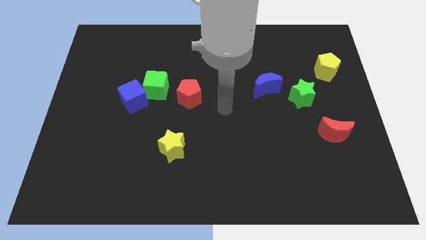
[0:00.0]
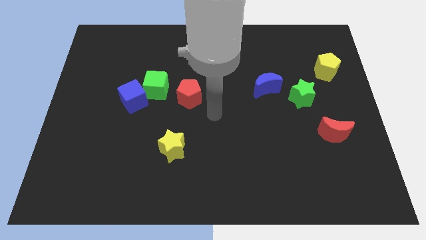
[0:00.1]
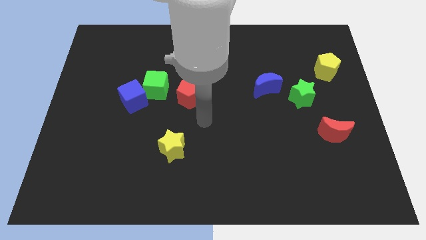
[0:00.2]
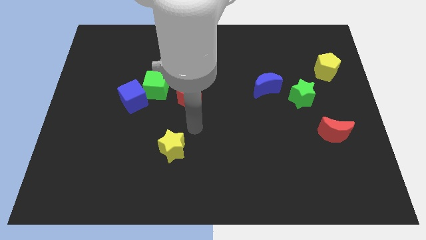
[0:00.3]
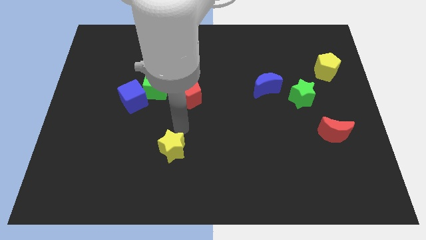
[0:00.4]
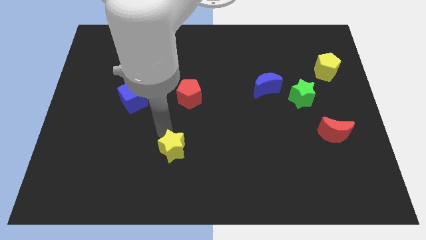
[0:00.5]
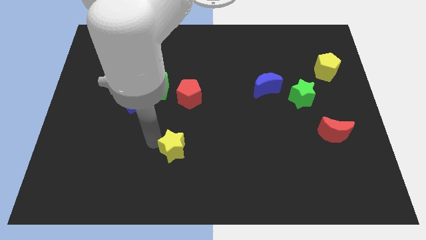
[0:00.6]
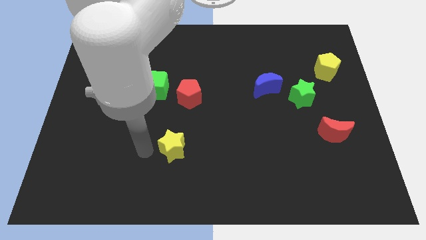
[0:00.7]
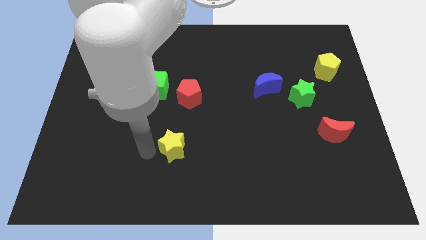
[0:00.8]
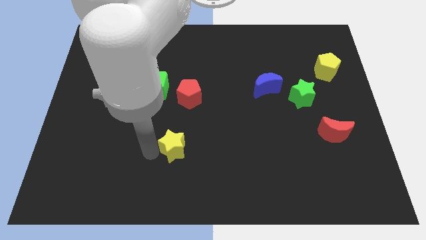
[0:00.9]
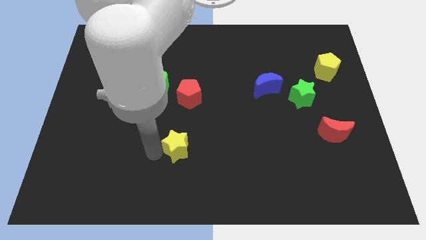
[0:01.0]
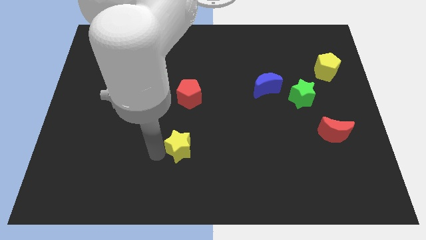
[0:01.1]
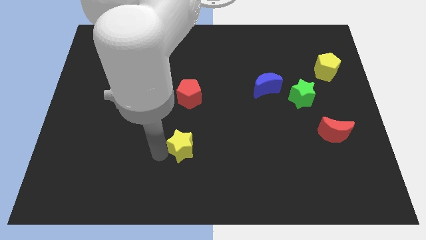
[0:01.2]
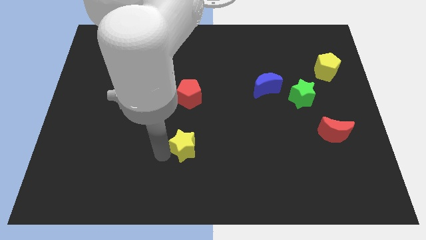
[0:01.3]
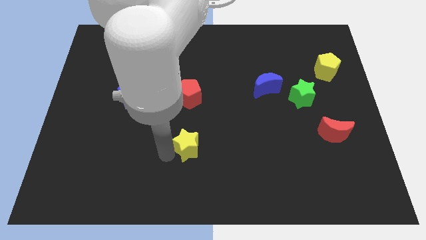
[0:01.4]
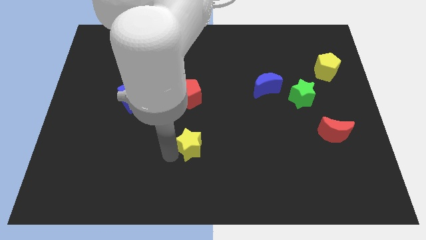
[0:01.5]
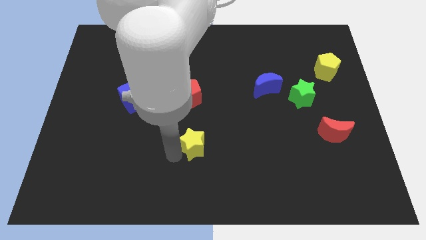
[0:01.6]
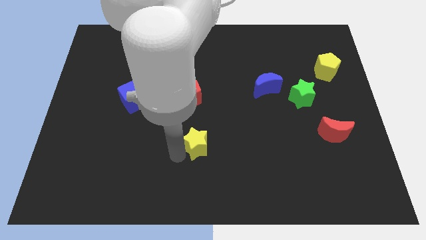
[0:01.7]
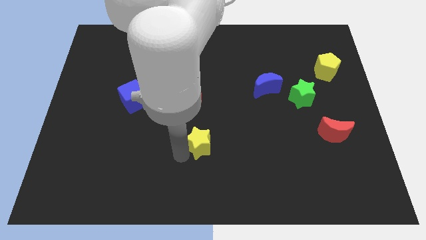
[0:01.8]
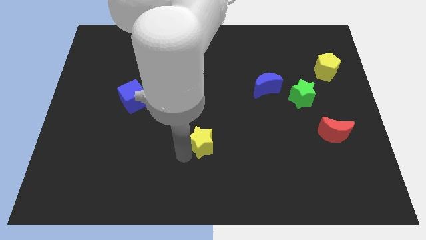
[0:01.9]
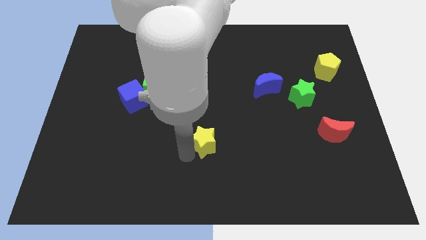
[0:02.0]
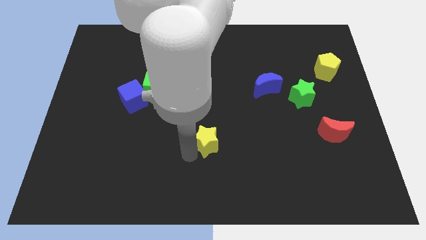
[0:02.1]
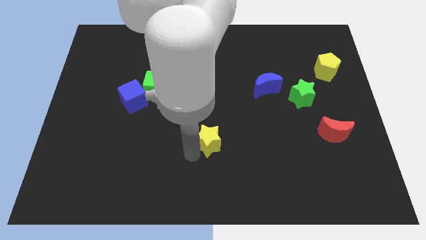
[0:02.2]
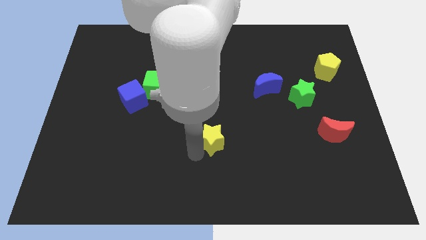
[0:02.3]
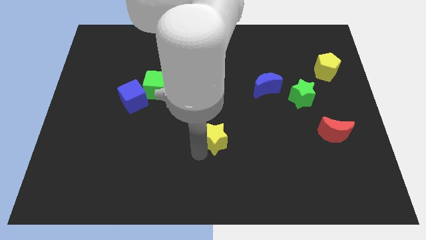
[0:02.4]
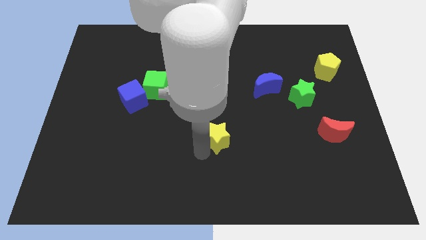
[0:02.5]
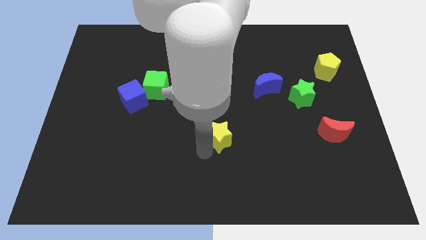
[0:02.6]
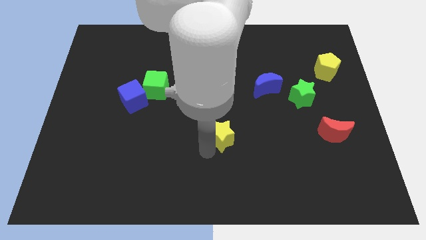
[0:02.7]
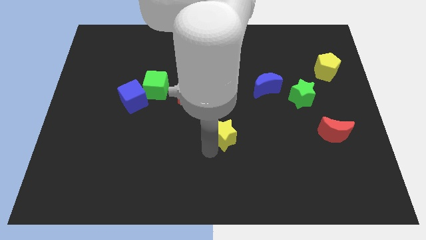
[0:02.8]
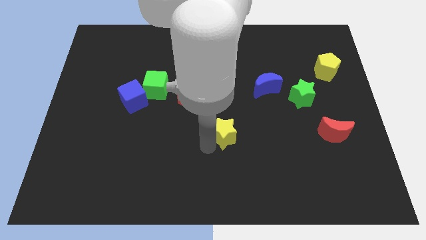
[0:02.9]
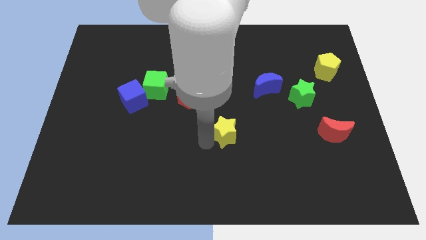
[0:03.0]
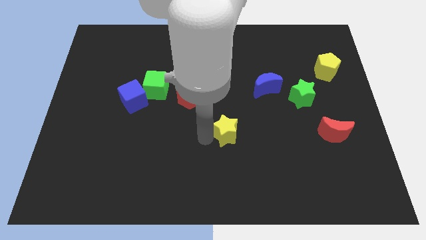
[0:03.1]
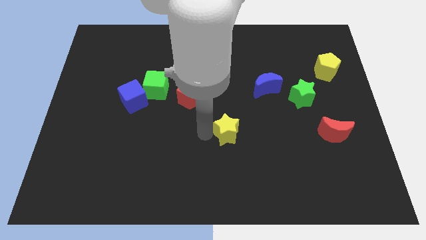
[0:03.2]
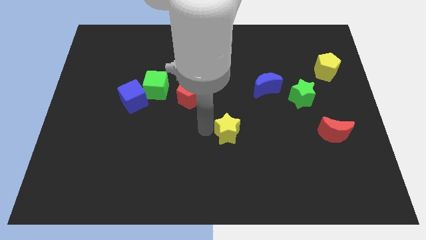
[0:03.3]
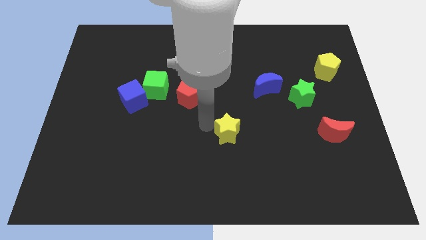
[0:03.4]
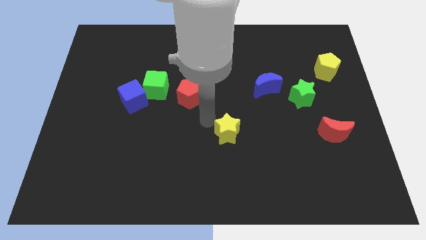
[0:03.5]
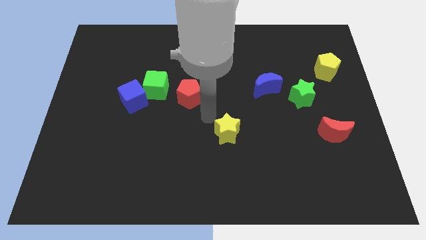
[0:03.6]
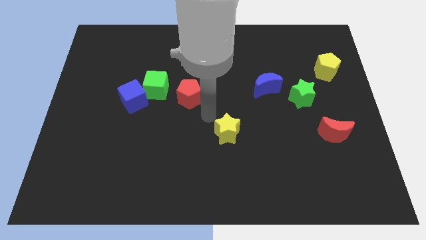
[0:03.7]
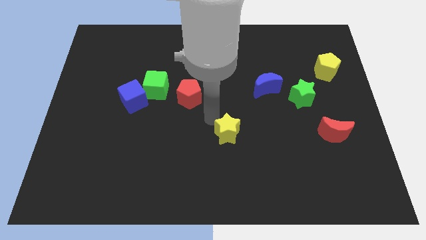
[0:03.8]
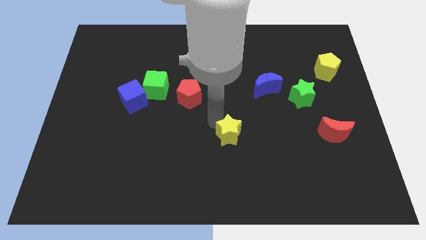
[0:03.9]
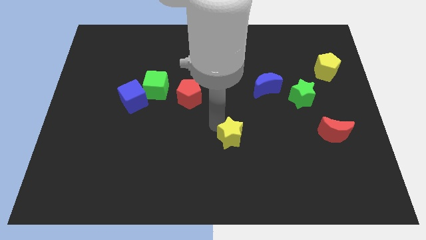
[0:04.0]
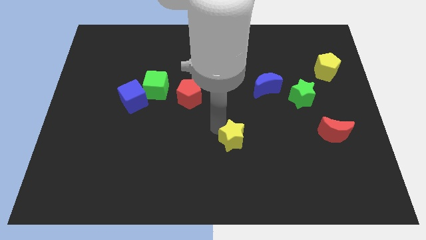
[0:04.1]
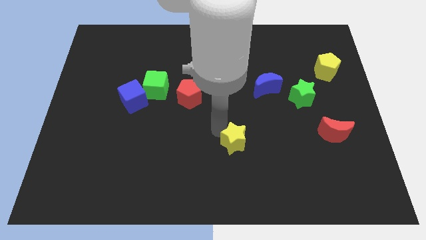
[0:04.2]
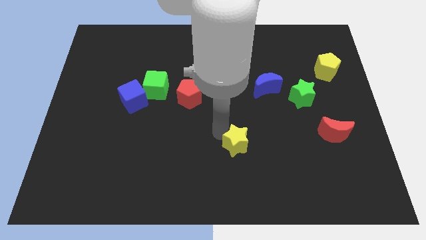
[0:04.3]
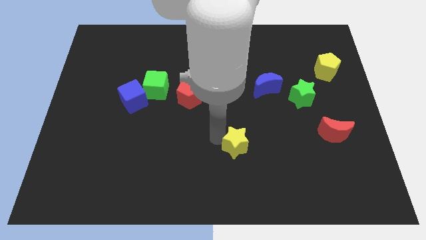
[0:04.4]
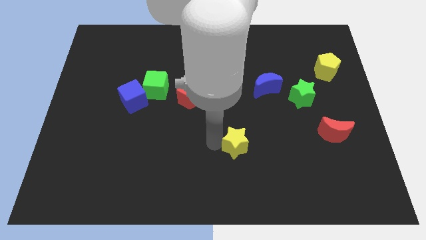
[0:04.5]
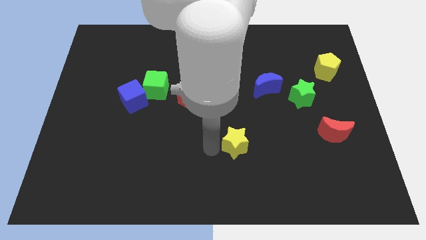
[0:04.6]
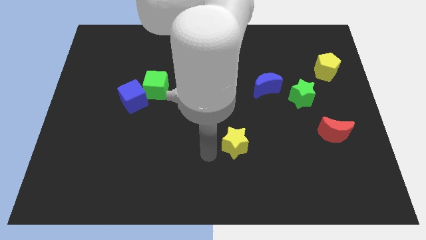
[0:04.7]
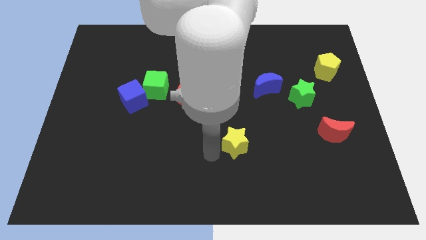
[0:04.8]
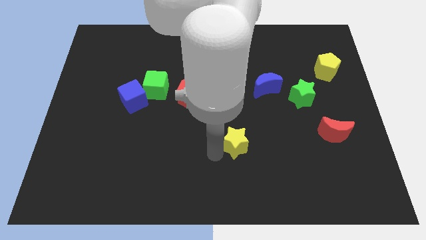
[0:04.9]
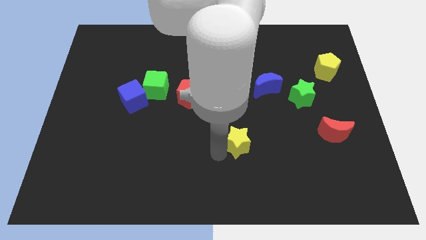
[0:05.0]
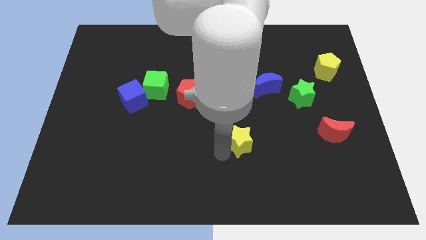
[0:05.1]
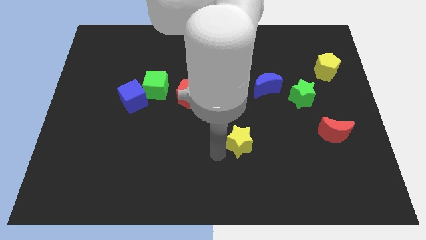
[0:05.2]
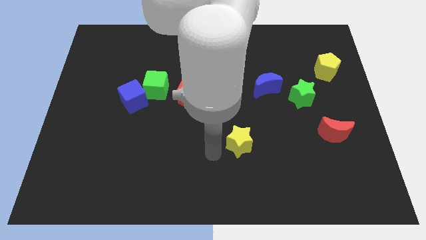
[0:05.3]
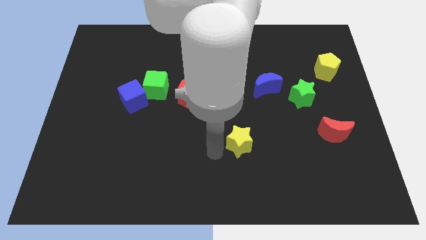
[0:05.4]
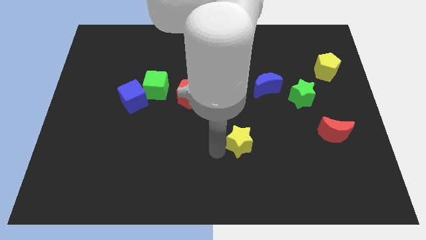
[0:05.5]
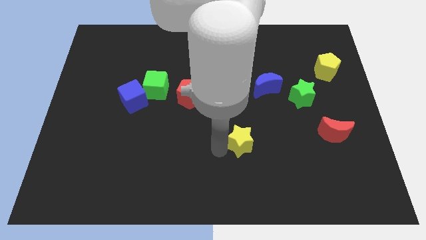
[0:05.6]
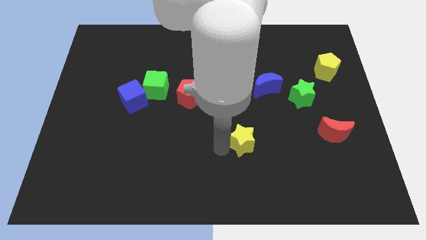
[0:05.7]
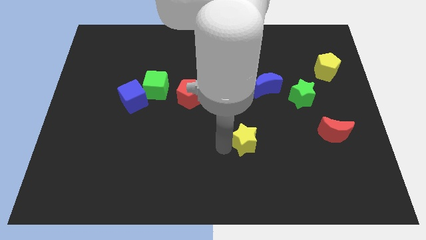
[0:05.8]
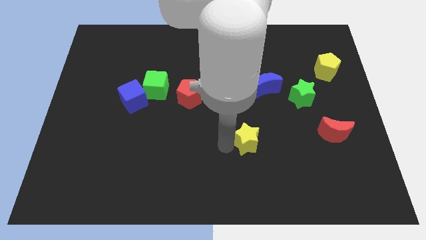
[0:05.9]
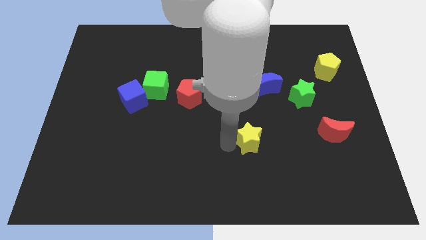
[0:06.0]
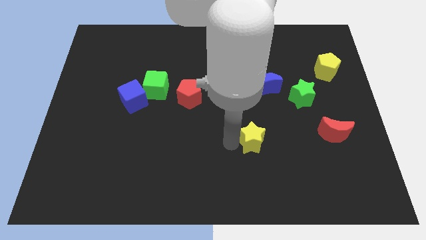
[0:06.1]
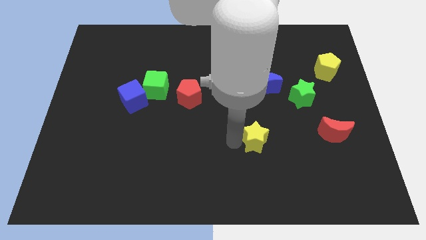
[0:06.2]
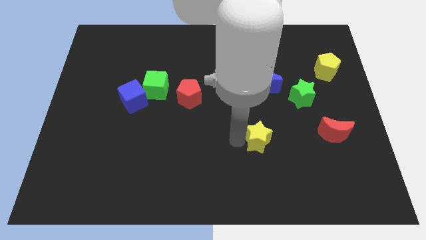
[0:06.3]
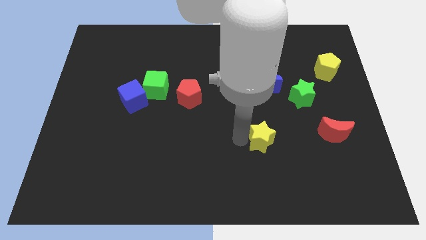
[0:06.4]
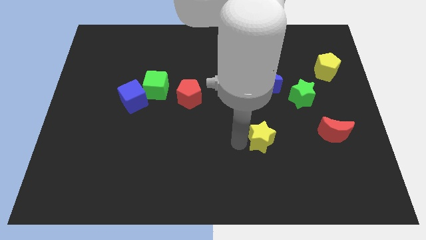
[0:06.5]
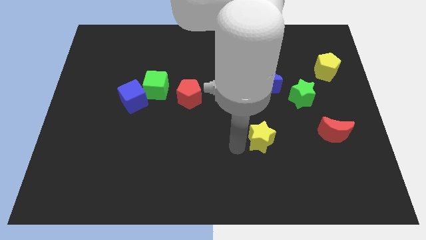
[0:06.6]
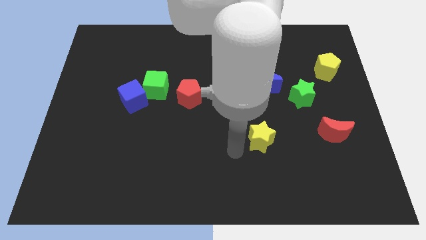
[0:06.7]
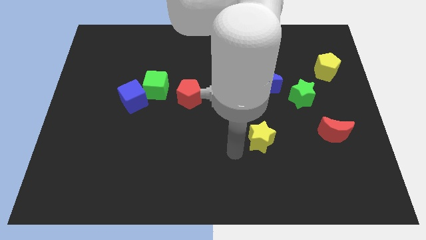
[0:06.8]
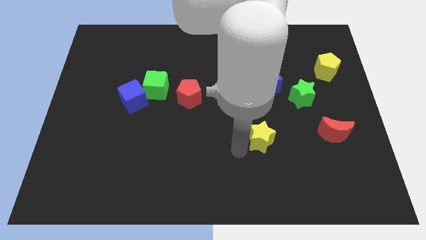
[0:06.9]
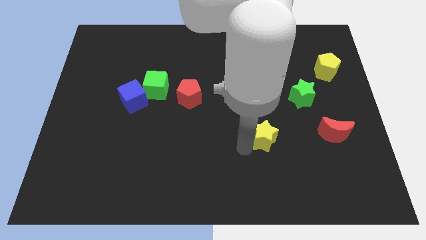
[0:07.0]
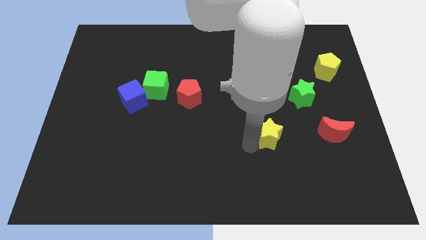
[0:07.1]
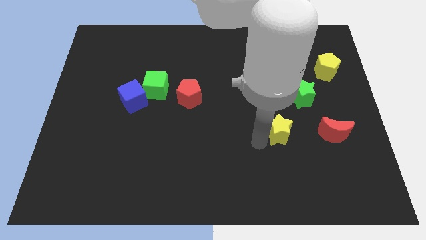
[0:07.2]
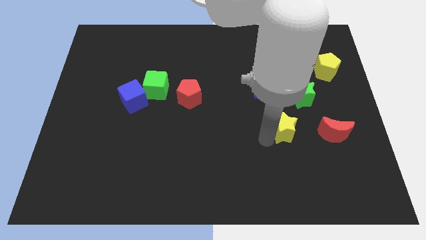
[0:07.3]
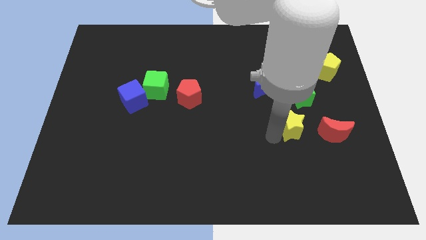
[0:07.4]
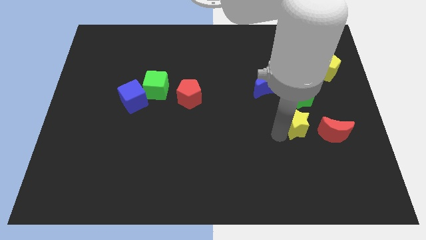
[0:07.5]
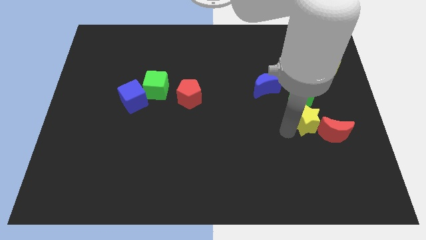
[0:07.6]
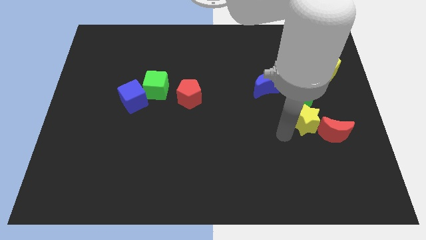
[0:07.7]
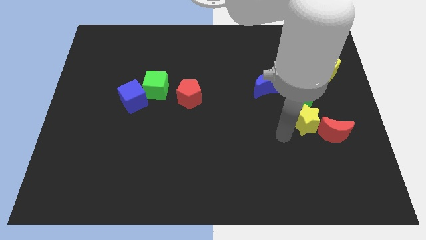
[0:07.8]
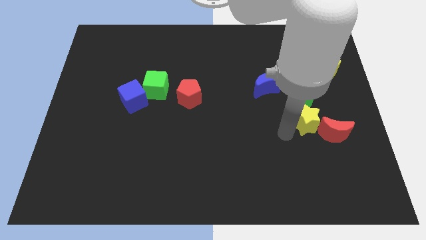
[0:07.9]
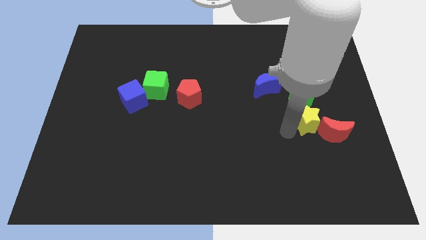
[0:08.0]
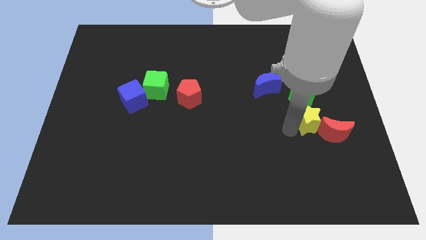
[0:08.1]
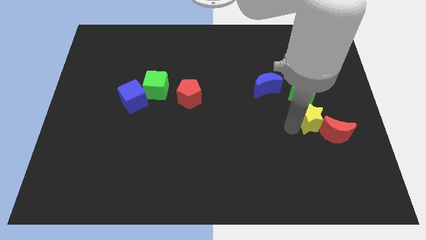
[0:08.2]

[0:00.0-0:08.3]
move the yellow star diagonally down and to the right of the green star
